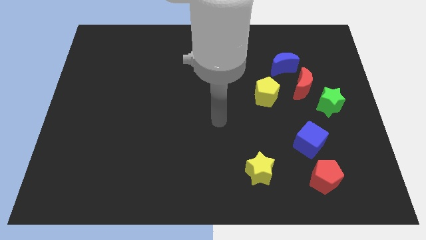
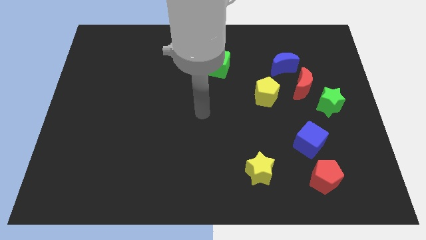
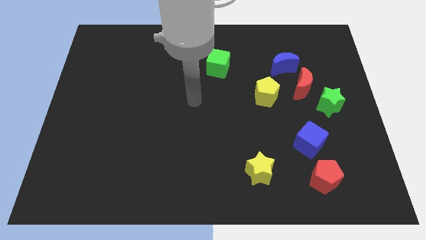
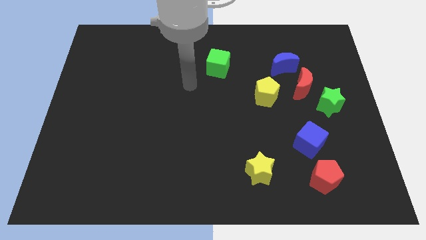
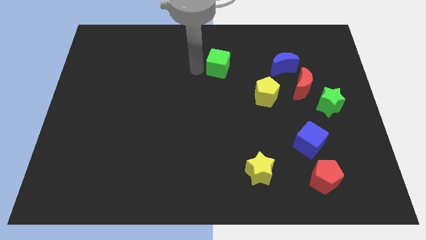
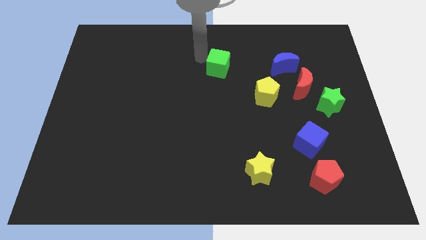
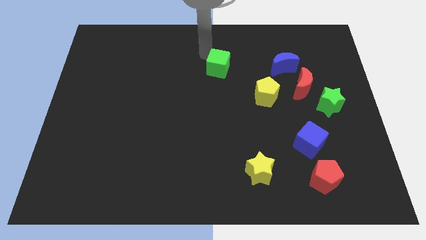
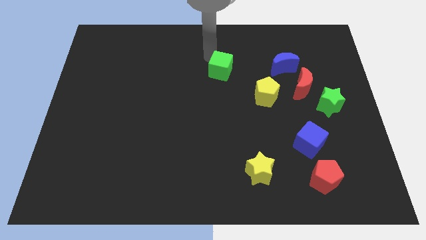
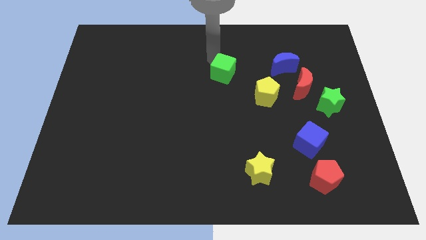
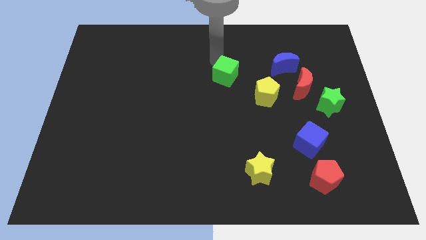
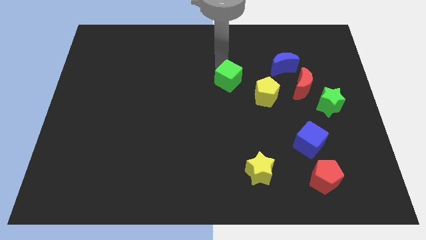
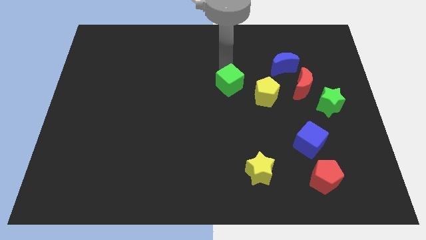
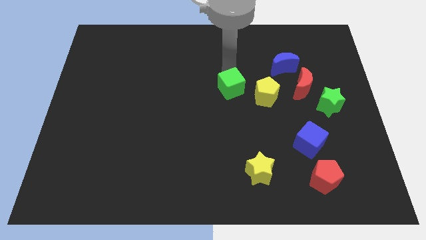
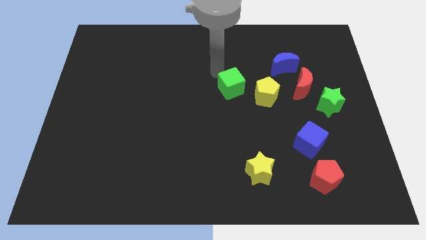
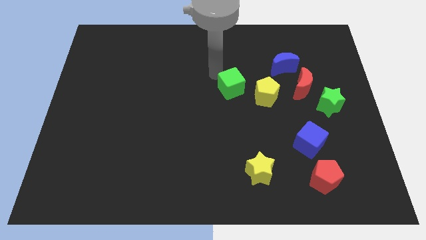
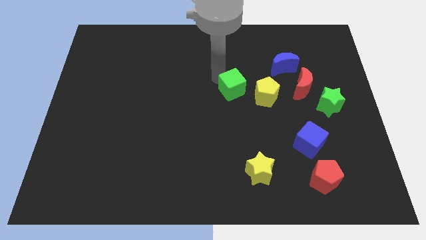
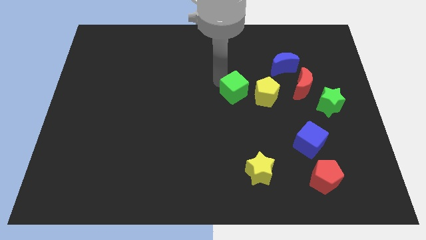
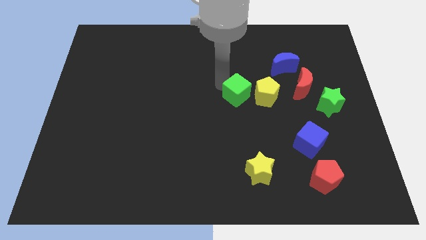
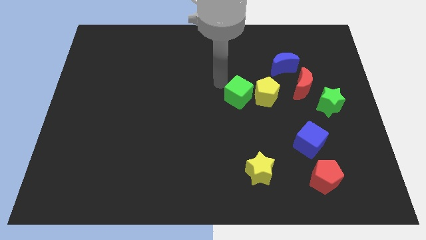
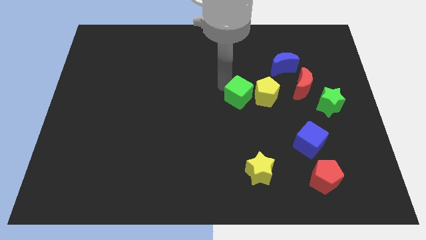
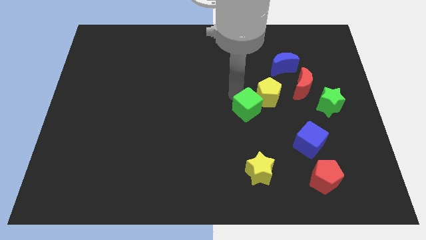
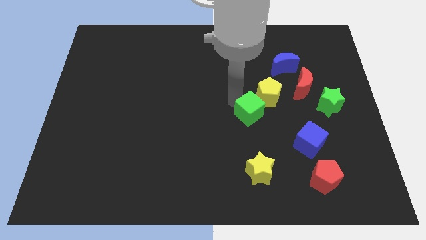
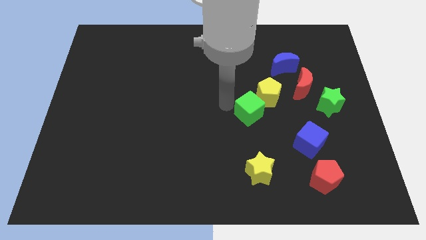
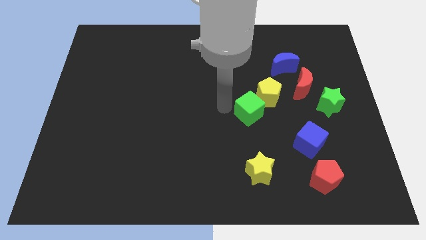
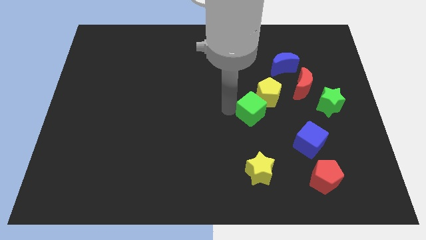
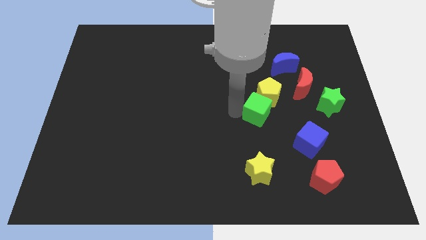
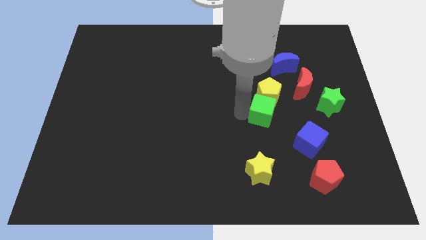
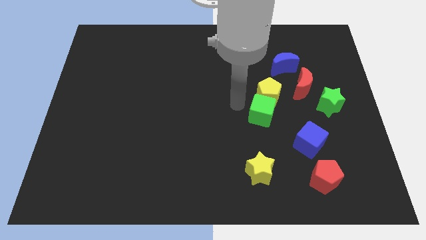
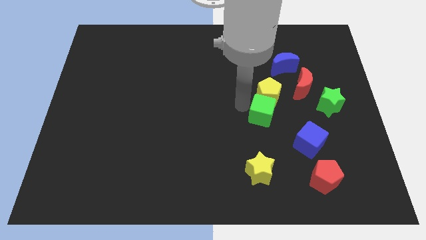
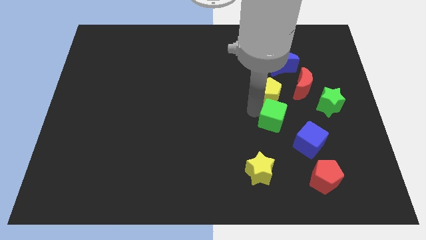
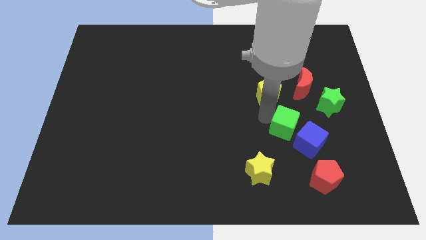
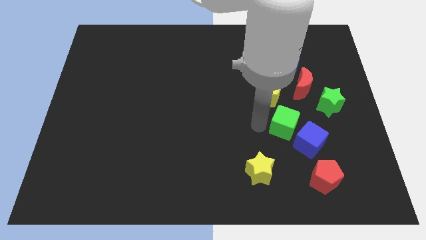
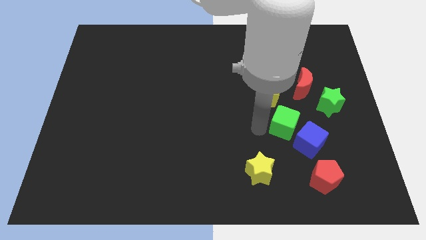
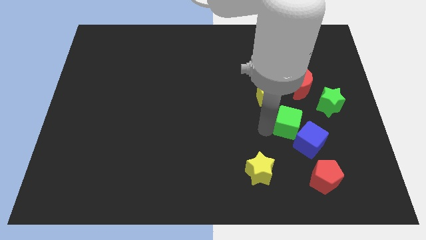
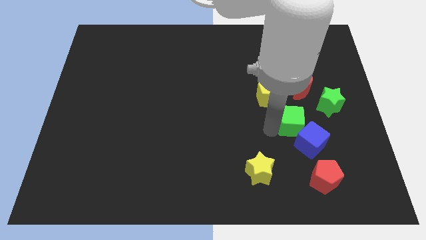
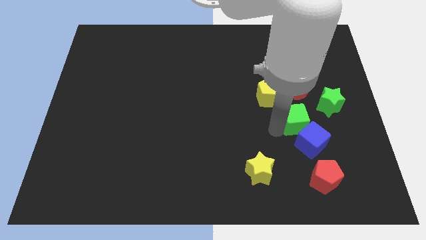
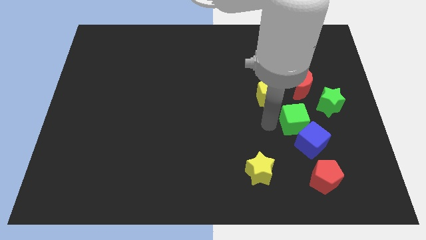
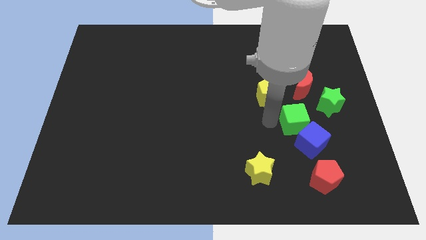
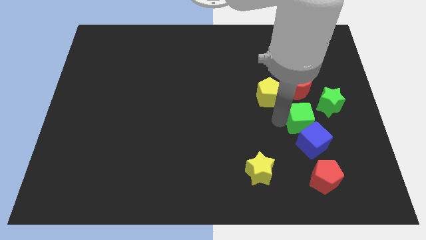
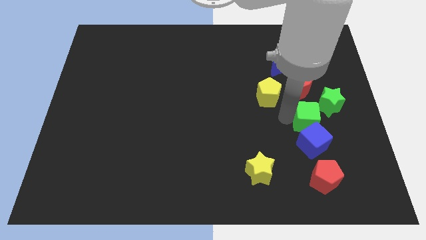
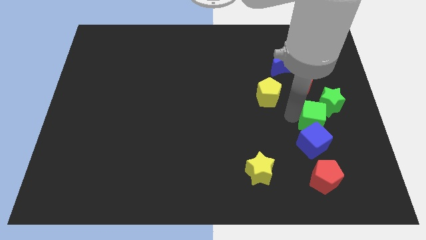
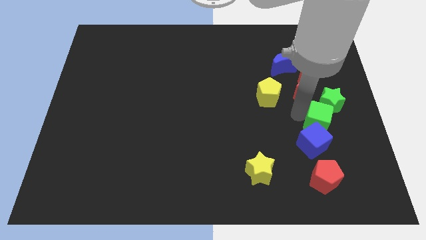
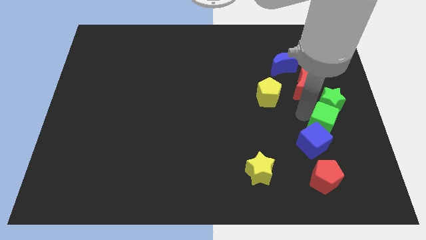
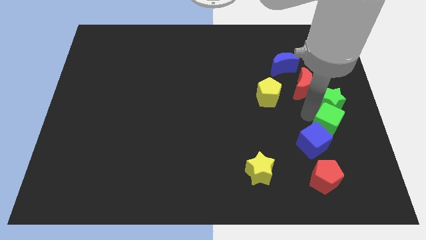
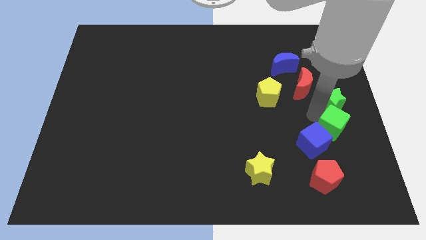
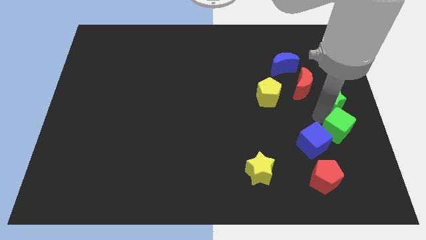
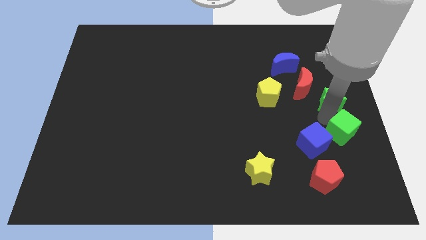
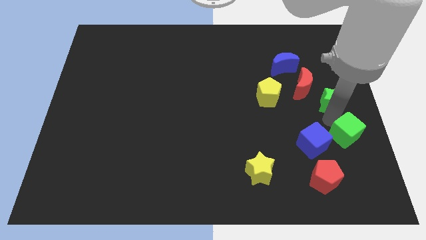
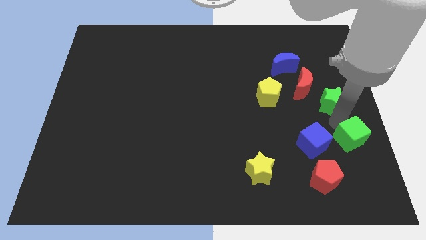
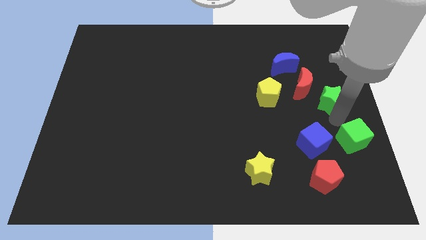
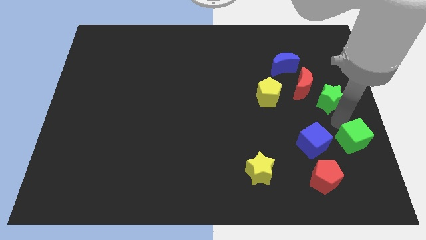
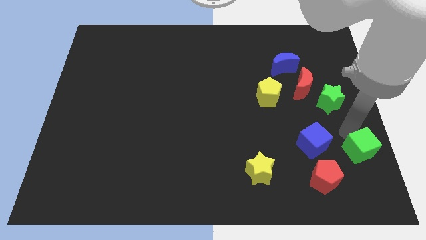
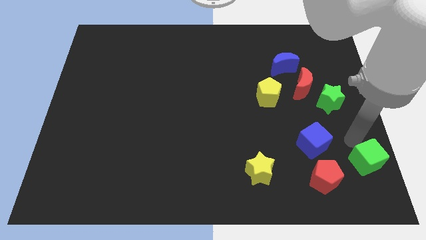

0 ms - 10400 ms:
put the green cube to the bottom right corner
